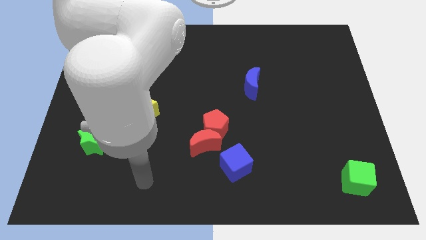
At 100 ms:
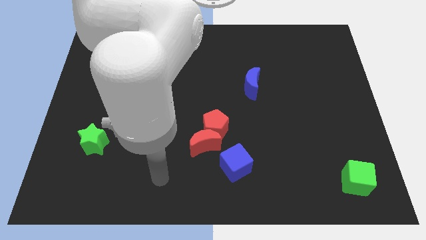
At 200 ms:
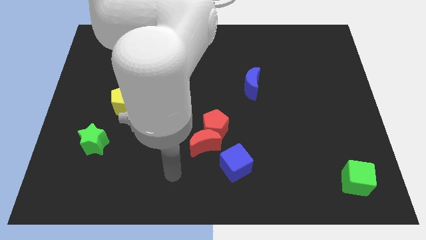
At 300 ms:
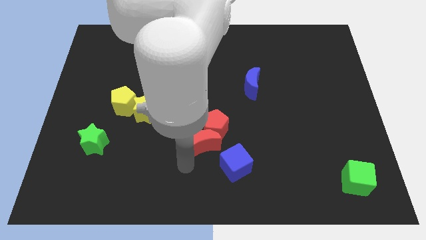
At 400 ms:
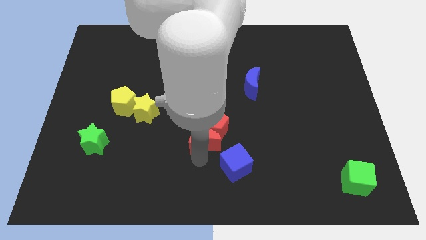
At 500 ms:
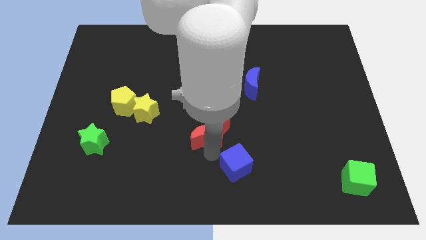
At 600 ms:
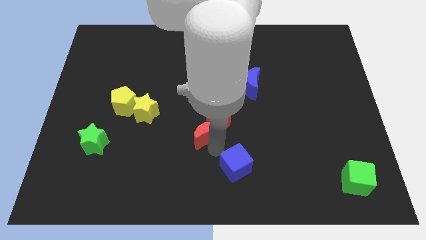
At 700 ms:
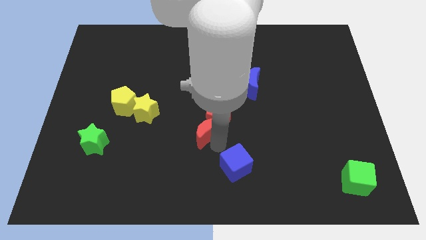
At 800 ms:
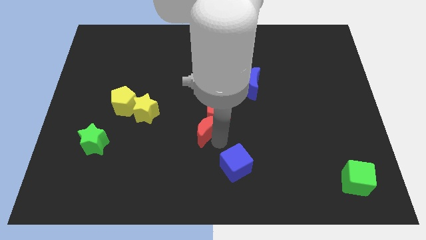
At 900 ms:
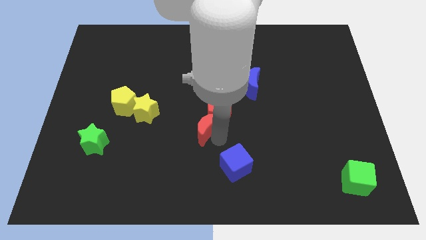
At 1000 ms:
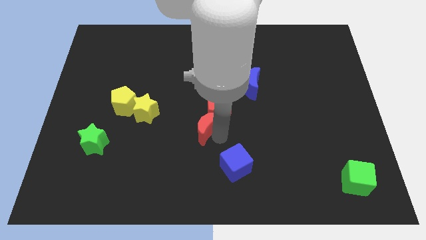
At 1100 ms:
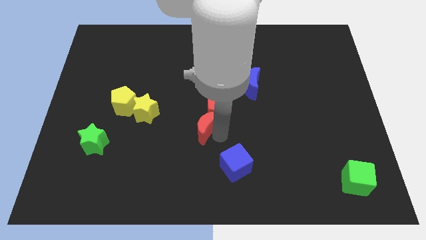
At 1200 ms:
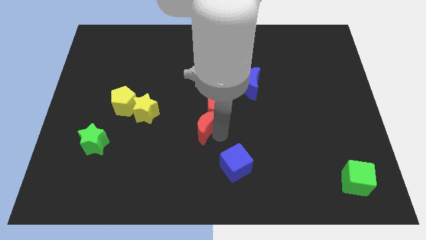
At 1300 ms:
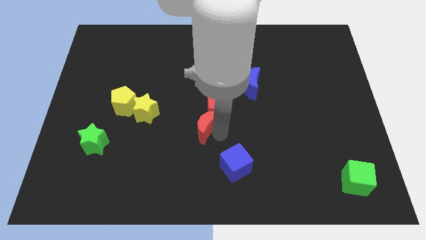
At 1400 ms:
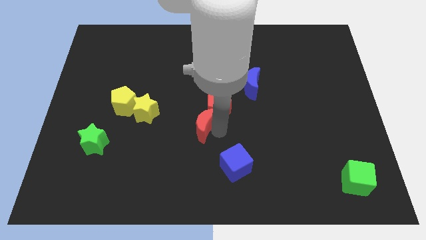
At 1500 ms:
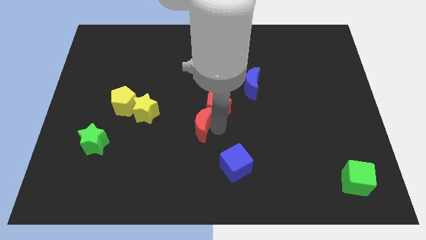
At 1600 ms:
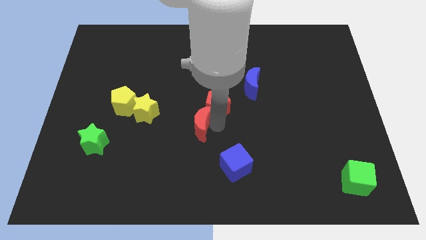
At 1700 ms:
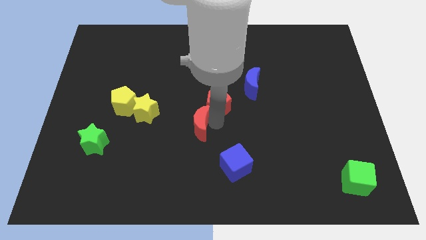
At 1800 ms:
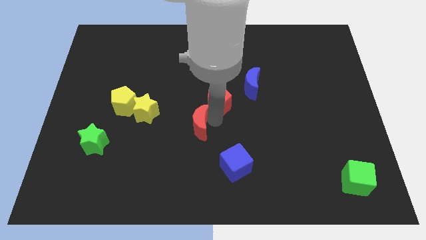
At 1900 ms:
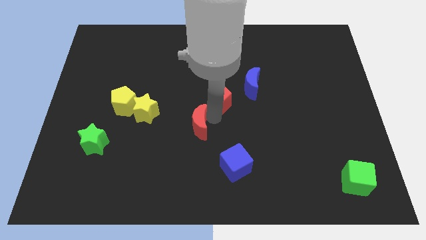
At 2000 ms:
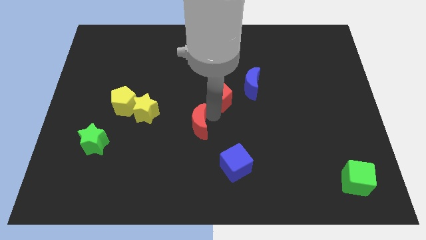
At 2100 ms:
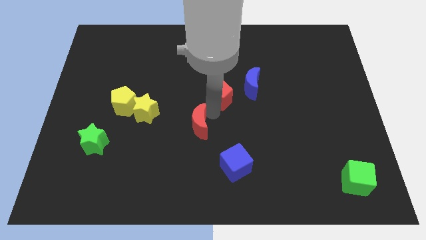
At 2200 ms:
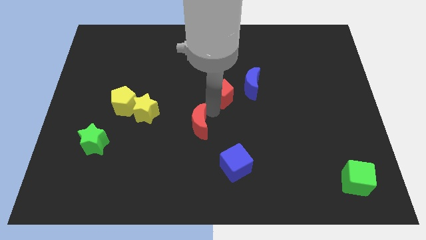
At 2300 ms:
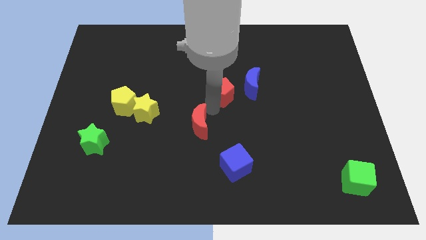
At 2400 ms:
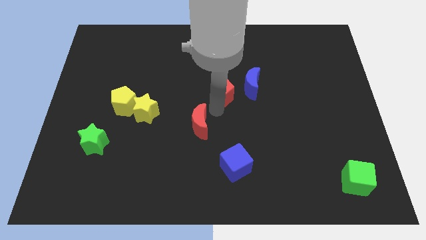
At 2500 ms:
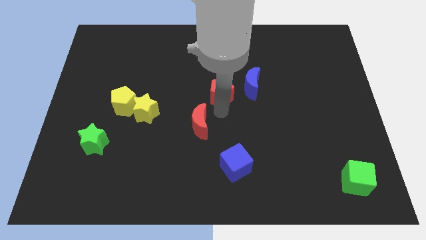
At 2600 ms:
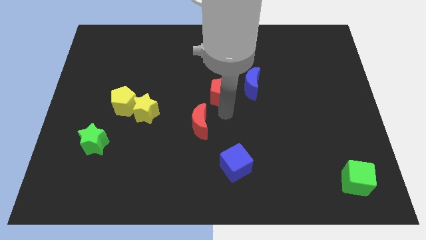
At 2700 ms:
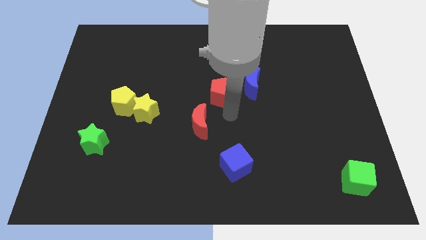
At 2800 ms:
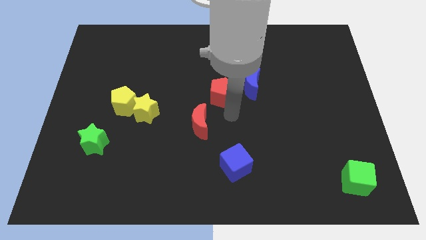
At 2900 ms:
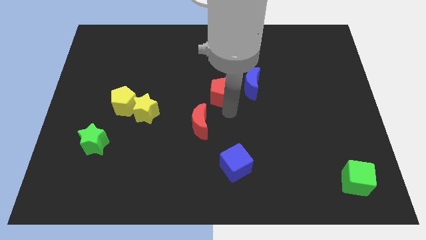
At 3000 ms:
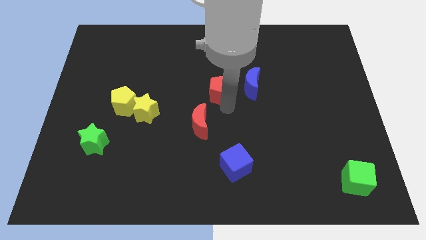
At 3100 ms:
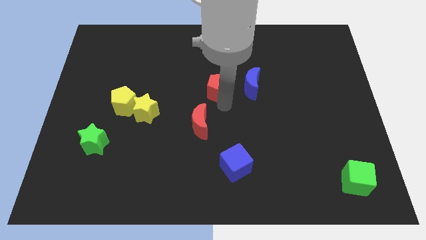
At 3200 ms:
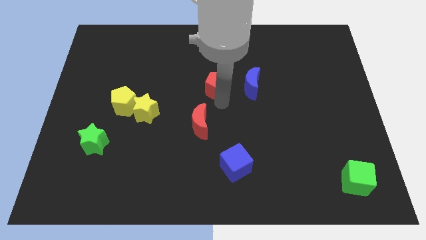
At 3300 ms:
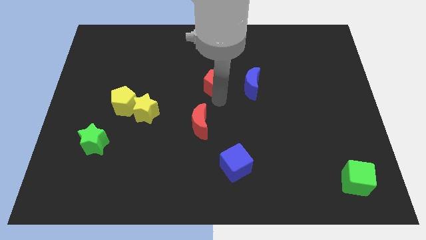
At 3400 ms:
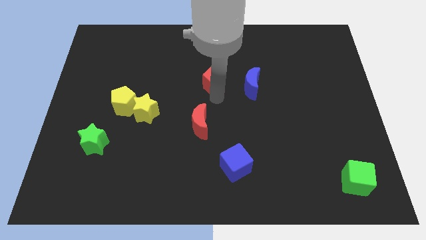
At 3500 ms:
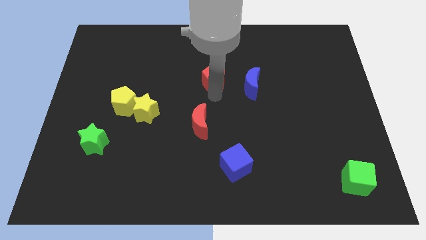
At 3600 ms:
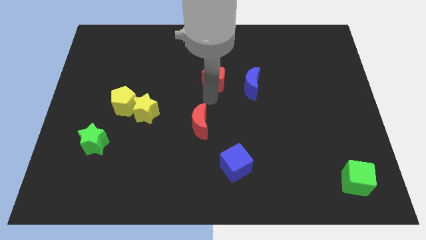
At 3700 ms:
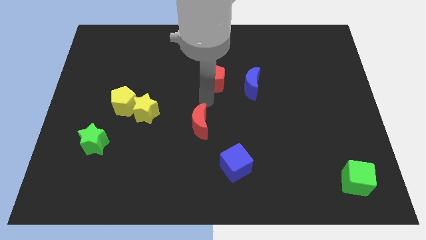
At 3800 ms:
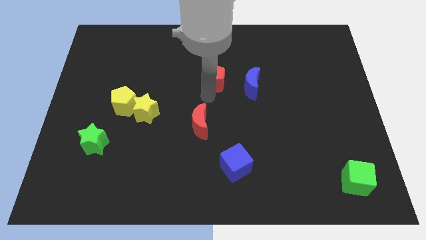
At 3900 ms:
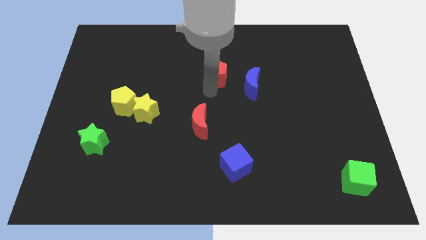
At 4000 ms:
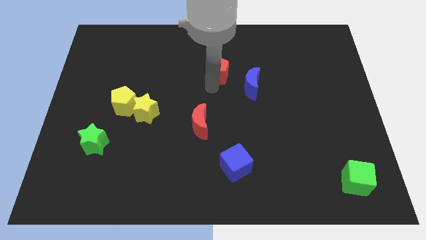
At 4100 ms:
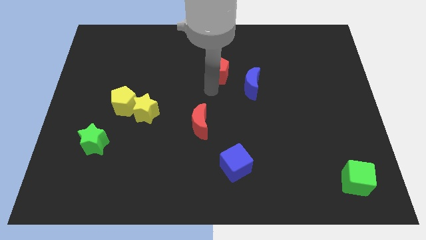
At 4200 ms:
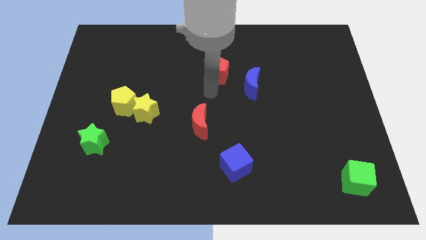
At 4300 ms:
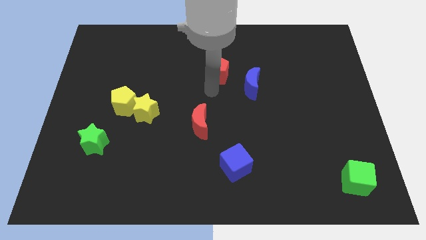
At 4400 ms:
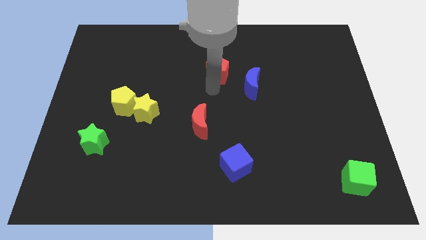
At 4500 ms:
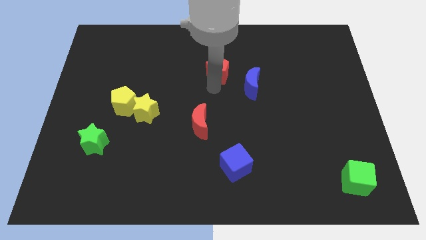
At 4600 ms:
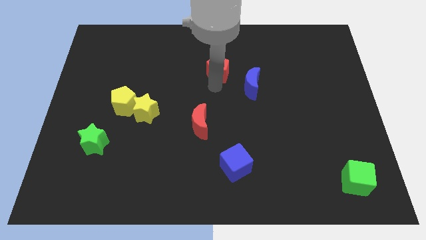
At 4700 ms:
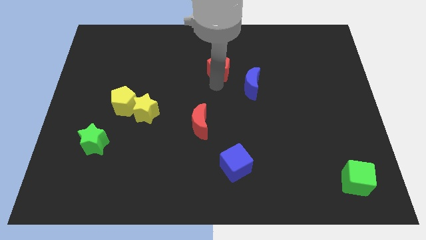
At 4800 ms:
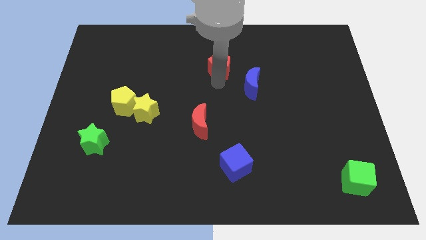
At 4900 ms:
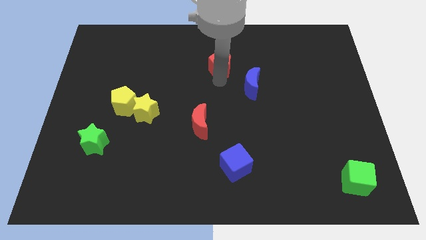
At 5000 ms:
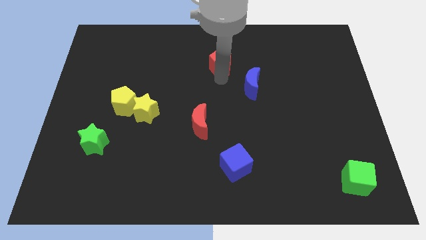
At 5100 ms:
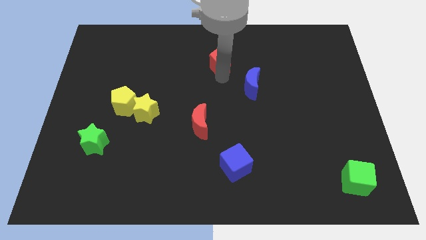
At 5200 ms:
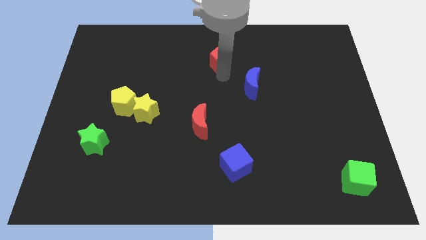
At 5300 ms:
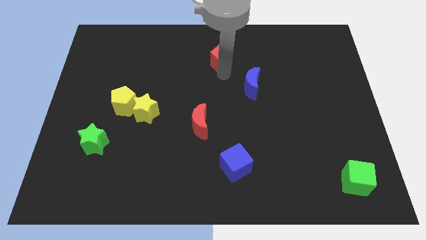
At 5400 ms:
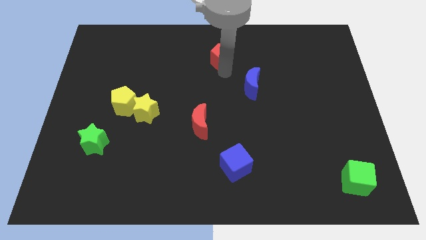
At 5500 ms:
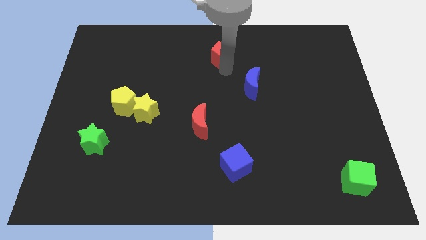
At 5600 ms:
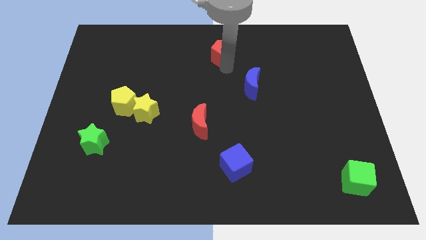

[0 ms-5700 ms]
push the red pentagon to the top

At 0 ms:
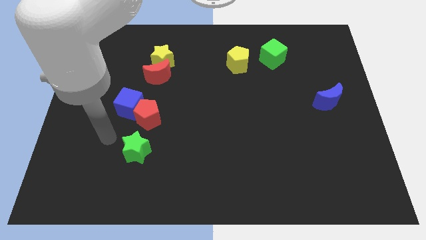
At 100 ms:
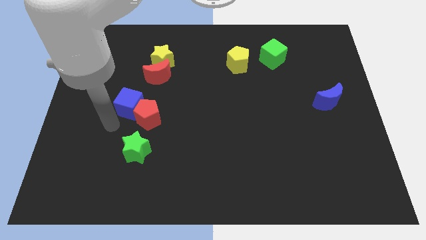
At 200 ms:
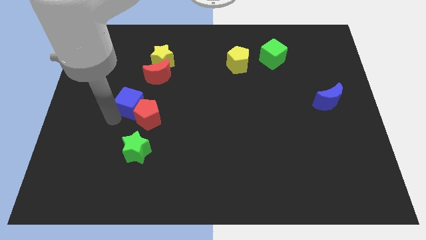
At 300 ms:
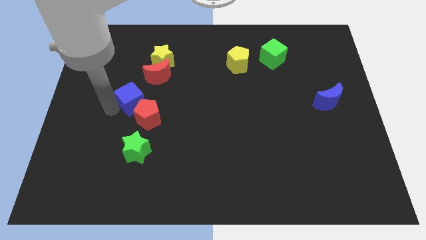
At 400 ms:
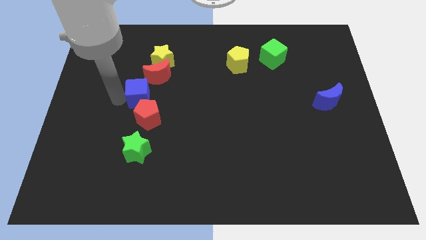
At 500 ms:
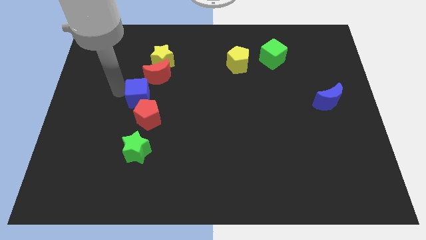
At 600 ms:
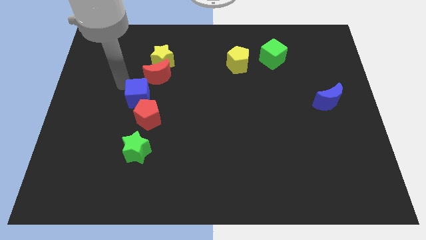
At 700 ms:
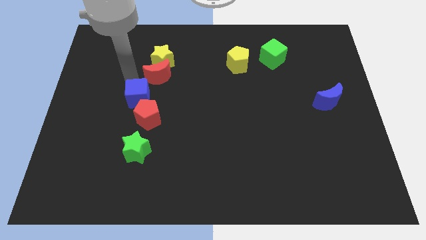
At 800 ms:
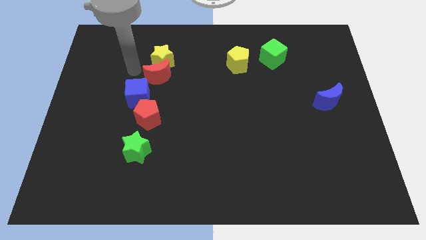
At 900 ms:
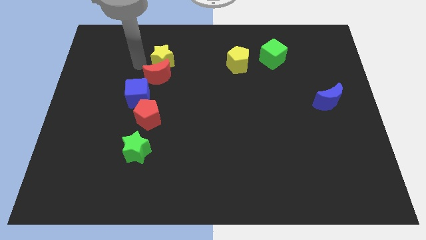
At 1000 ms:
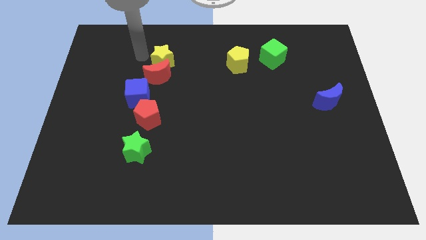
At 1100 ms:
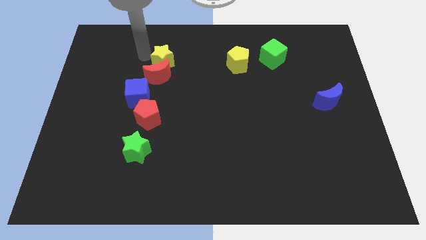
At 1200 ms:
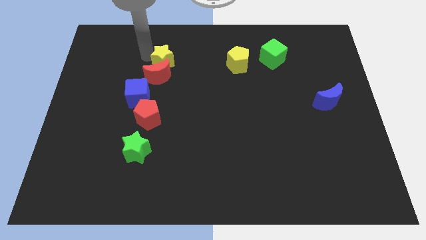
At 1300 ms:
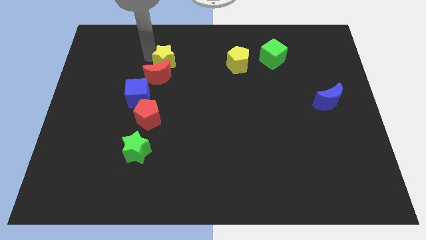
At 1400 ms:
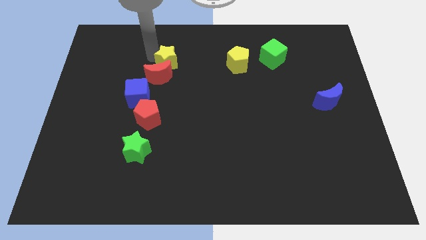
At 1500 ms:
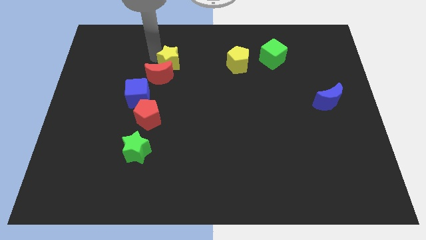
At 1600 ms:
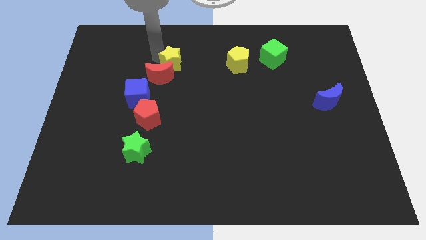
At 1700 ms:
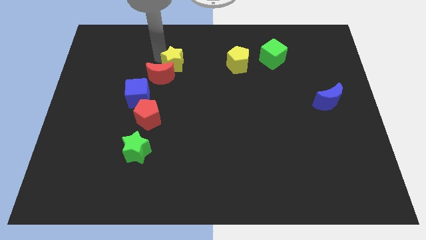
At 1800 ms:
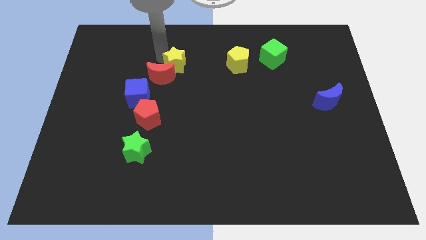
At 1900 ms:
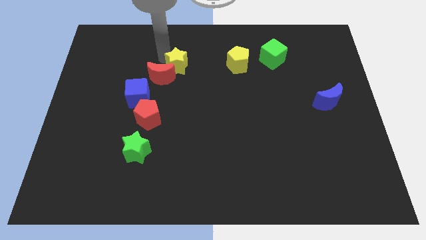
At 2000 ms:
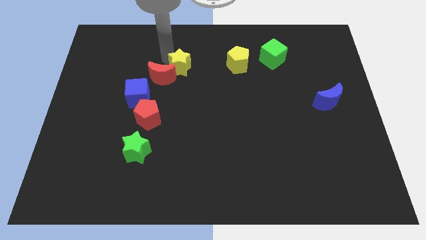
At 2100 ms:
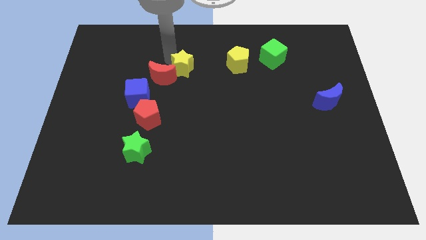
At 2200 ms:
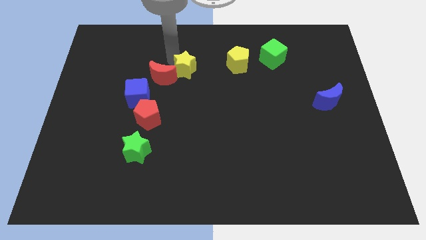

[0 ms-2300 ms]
push the yellow star to the middle of the board
